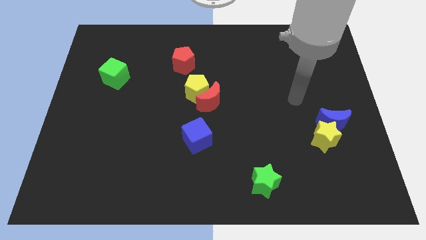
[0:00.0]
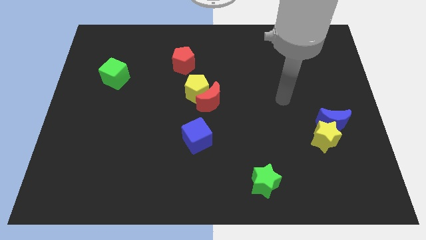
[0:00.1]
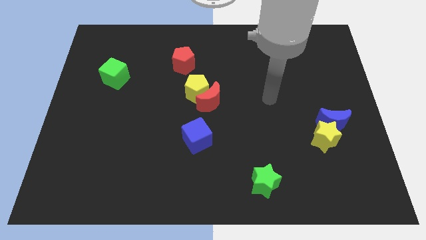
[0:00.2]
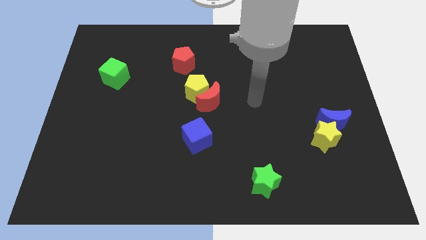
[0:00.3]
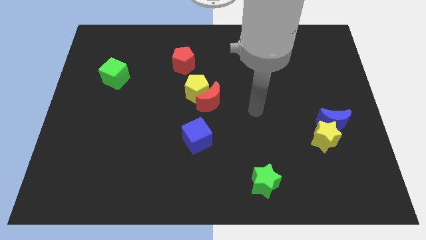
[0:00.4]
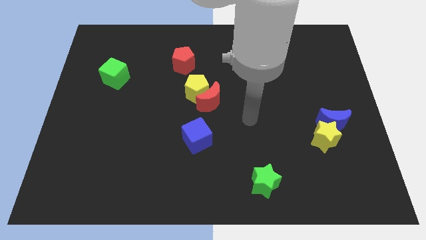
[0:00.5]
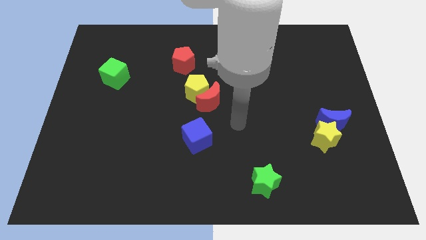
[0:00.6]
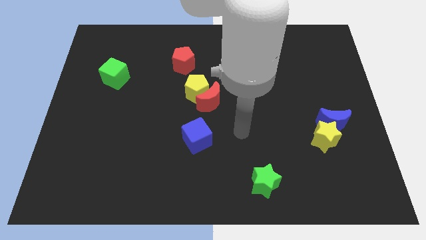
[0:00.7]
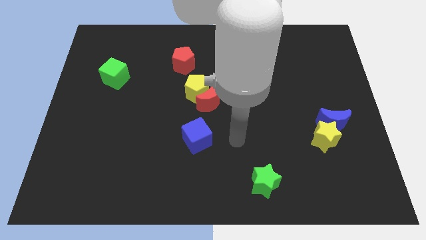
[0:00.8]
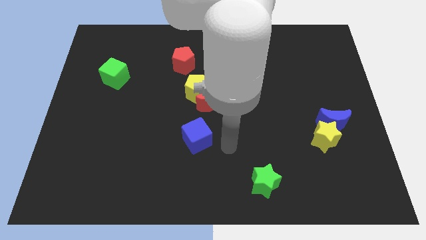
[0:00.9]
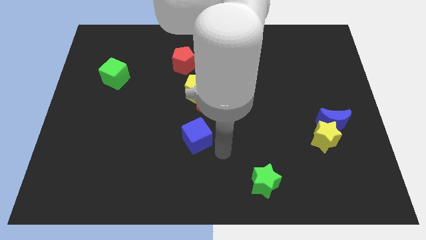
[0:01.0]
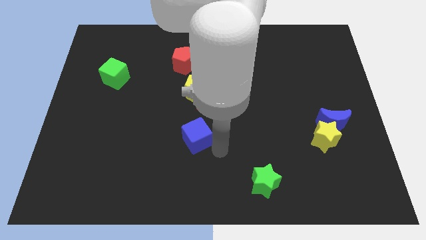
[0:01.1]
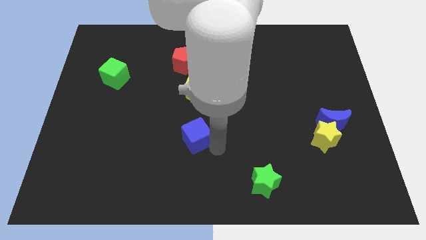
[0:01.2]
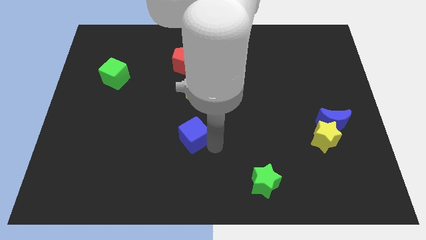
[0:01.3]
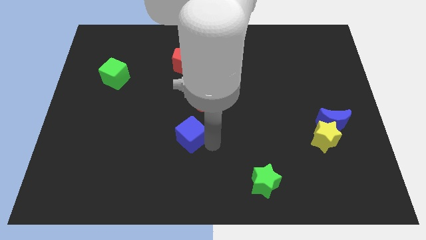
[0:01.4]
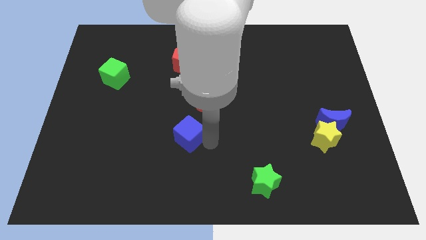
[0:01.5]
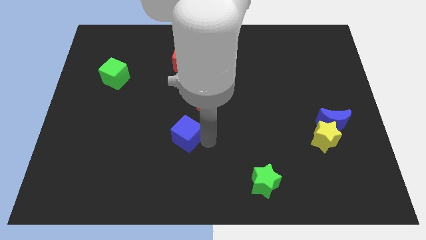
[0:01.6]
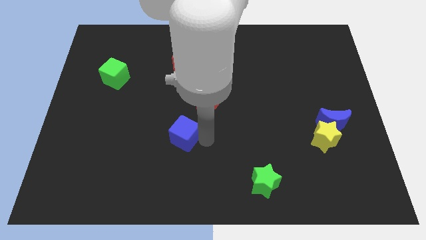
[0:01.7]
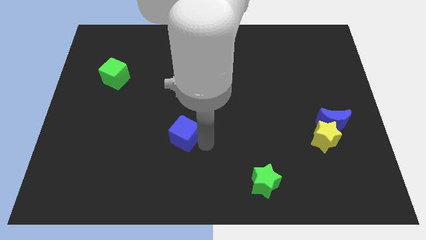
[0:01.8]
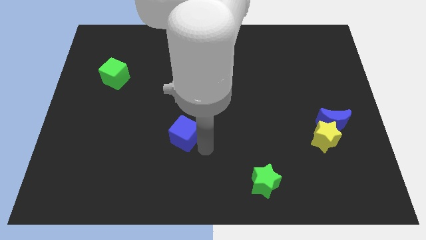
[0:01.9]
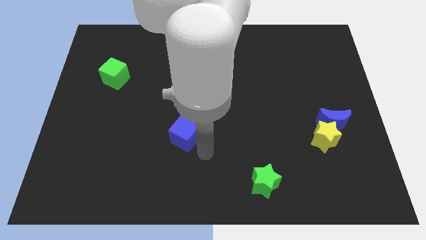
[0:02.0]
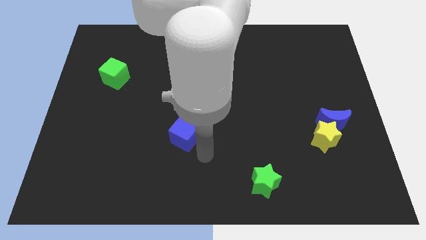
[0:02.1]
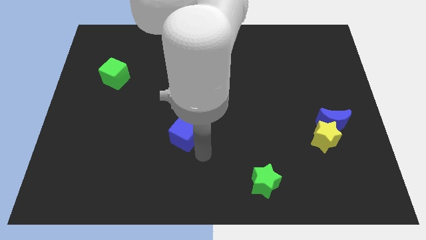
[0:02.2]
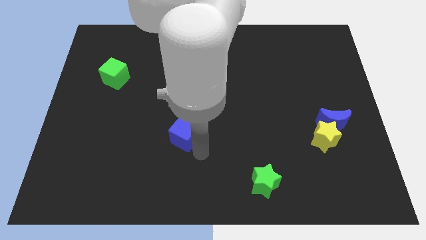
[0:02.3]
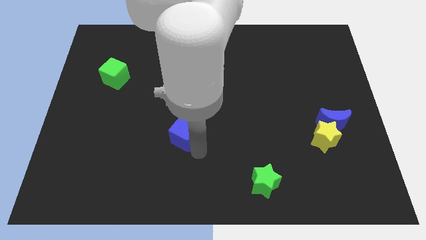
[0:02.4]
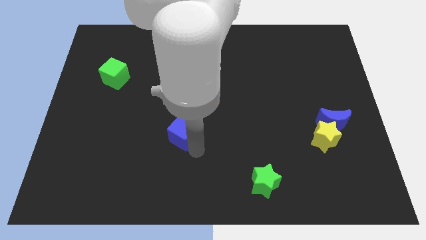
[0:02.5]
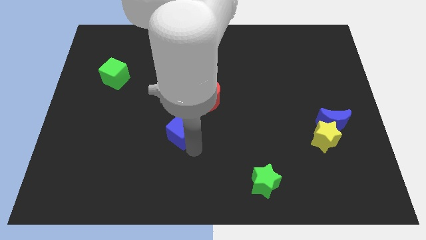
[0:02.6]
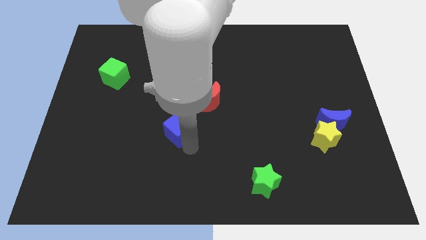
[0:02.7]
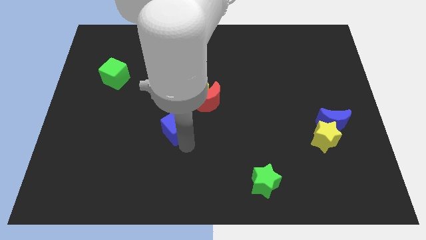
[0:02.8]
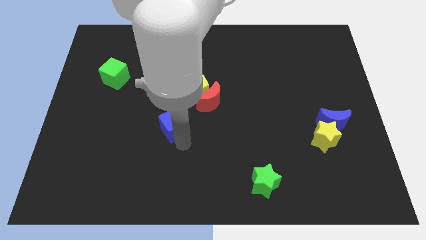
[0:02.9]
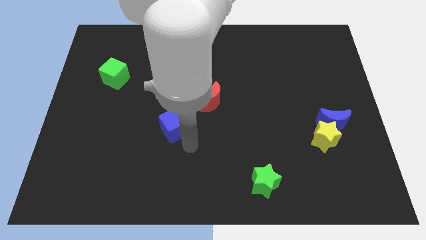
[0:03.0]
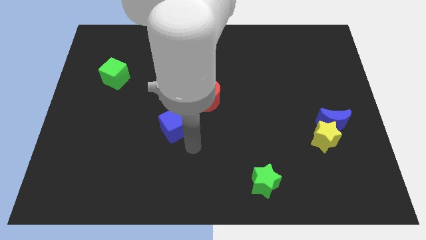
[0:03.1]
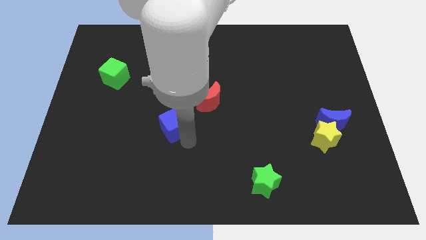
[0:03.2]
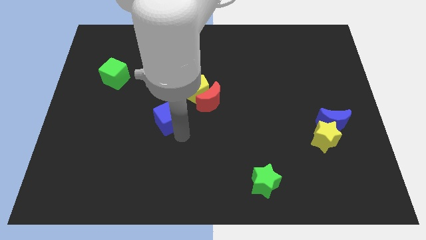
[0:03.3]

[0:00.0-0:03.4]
slightly slide the blue cube up and to the left diagonally

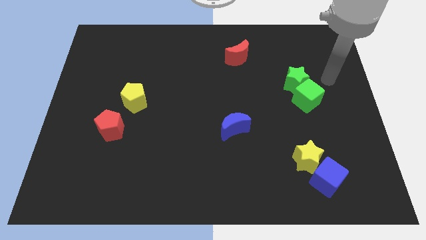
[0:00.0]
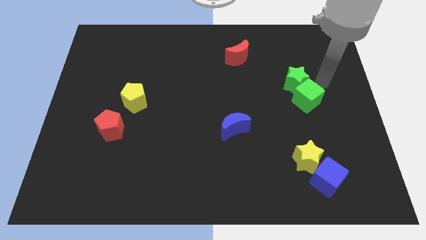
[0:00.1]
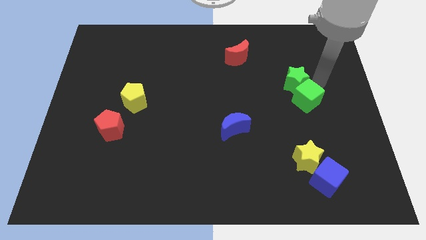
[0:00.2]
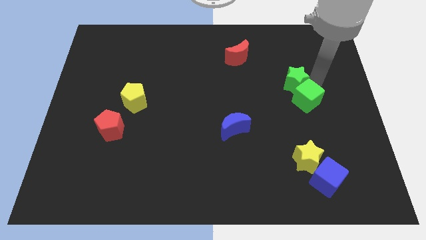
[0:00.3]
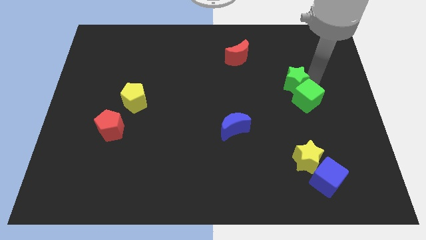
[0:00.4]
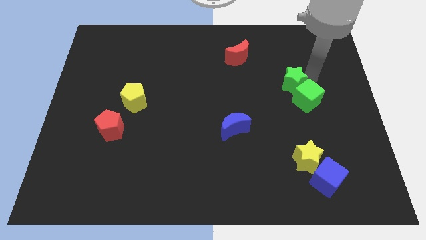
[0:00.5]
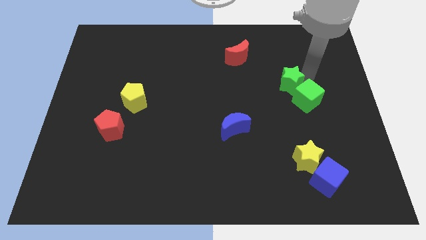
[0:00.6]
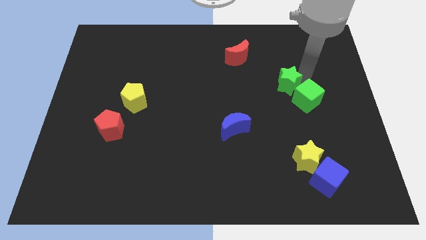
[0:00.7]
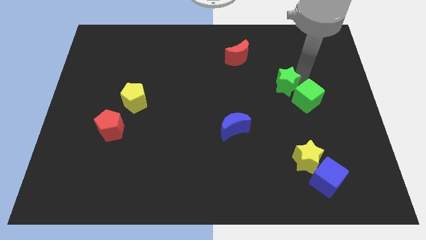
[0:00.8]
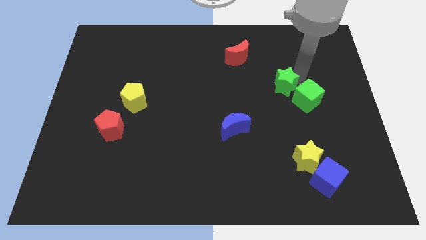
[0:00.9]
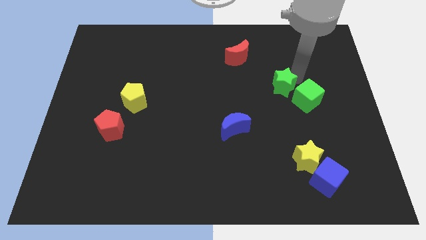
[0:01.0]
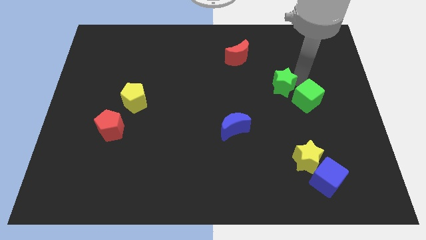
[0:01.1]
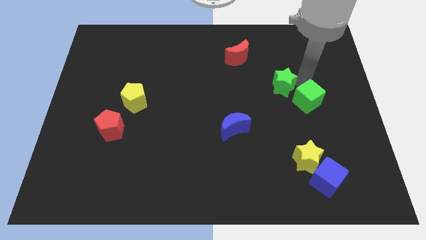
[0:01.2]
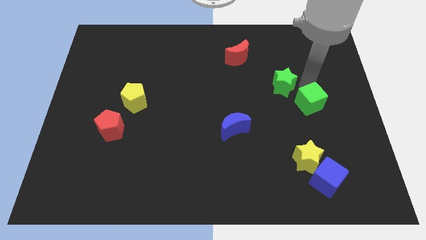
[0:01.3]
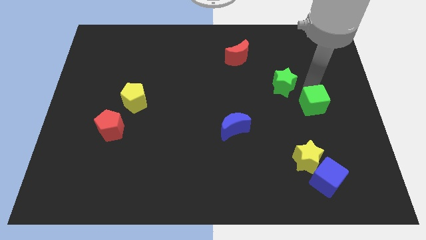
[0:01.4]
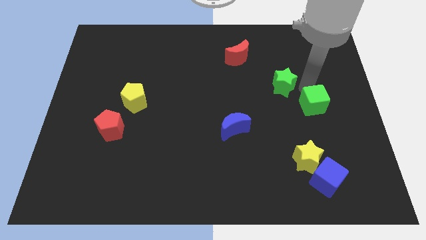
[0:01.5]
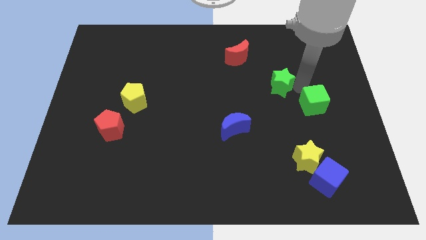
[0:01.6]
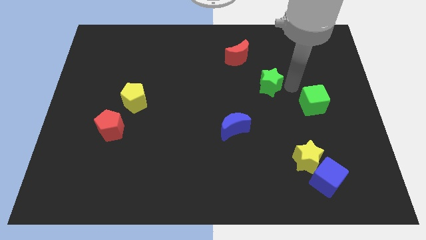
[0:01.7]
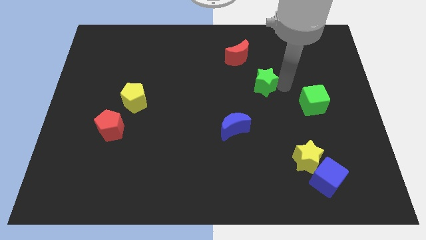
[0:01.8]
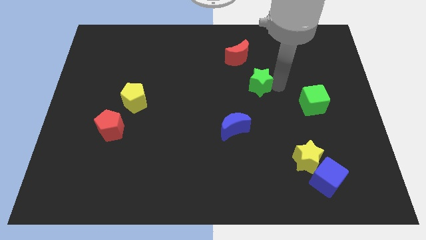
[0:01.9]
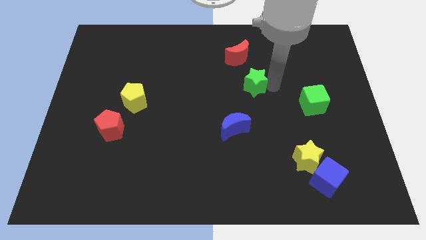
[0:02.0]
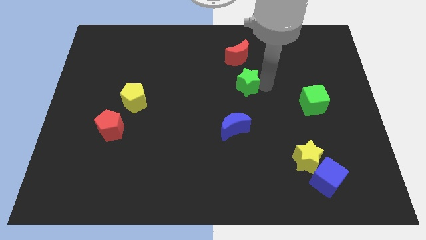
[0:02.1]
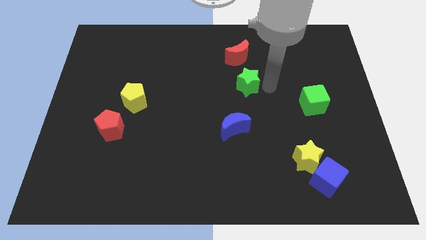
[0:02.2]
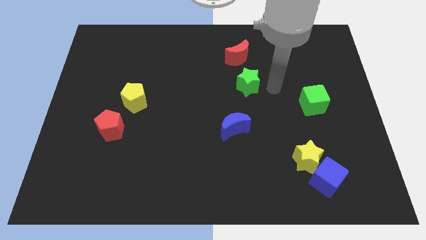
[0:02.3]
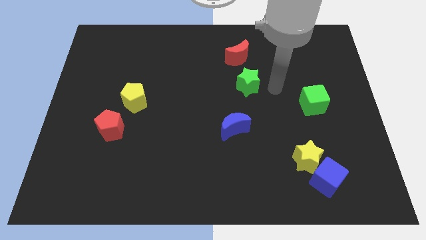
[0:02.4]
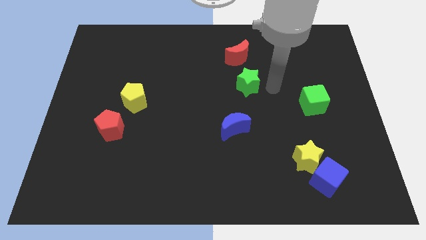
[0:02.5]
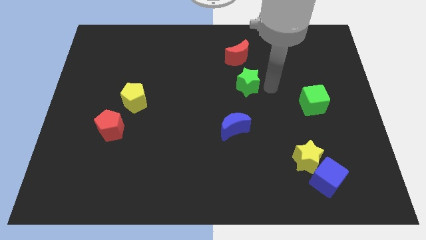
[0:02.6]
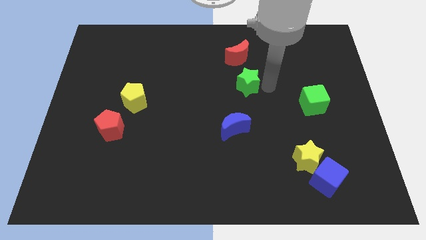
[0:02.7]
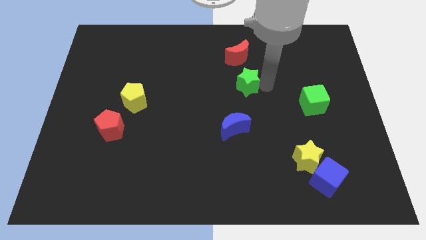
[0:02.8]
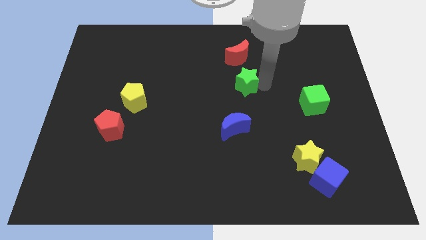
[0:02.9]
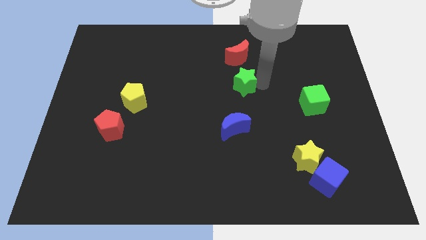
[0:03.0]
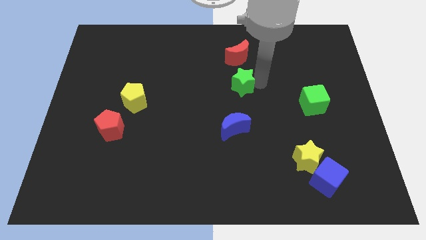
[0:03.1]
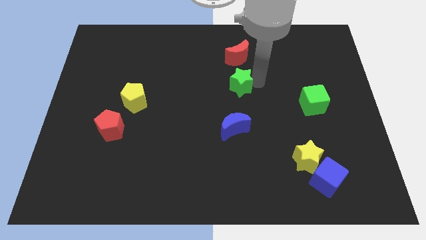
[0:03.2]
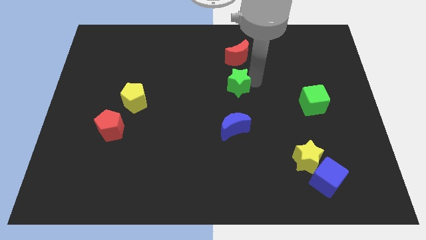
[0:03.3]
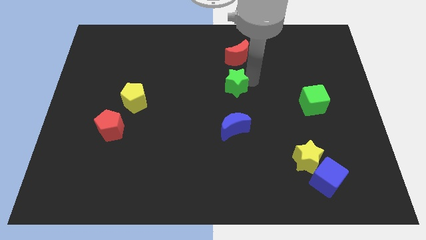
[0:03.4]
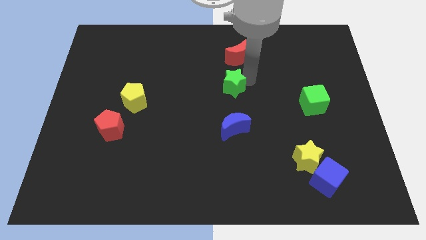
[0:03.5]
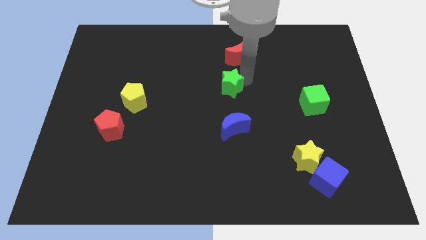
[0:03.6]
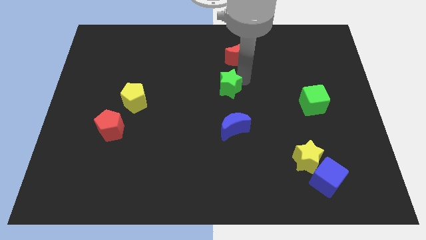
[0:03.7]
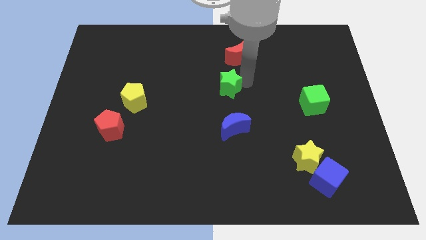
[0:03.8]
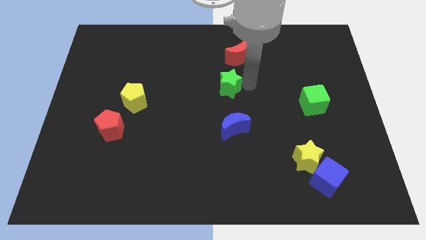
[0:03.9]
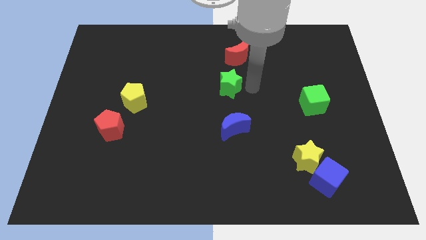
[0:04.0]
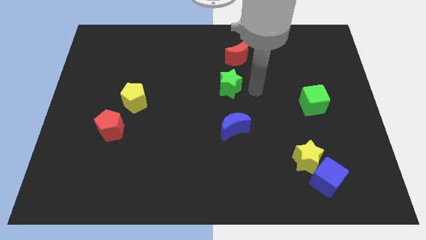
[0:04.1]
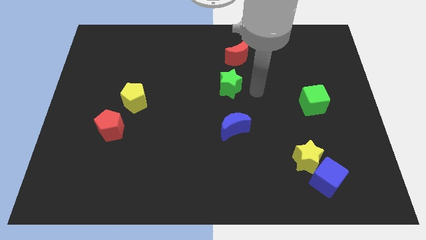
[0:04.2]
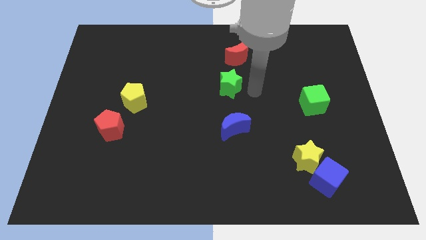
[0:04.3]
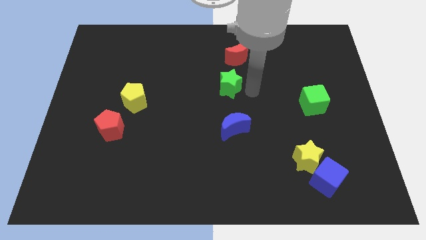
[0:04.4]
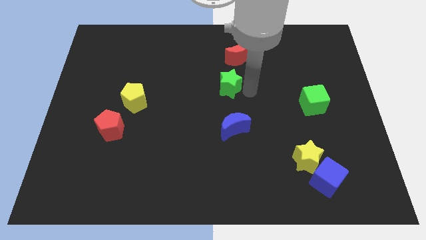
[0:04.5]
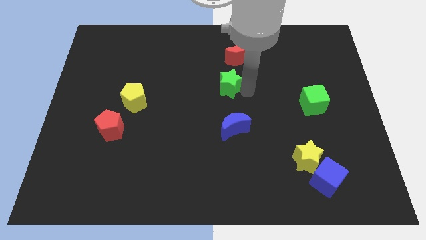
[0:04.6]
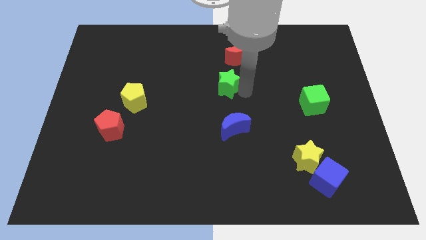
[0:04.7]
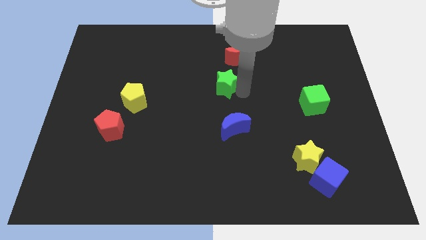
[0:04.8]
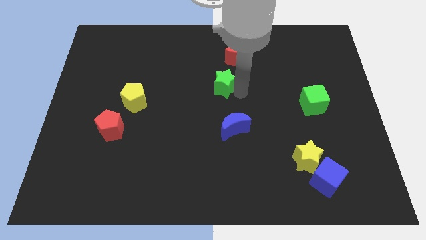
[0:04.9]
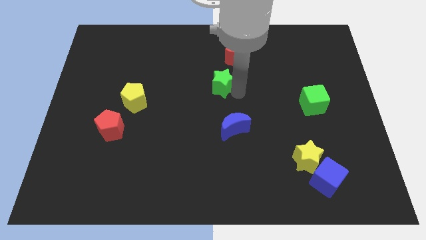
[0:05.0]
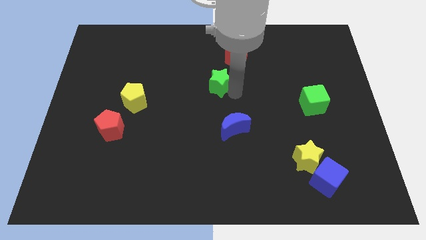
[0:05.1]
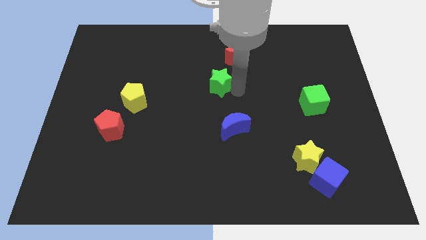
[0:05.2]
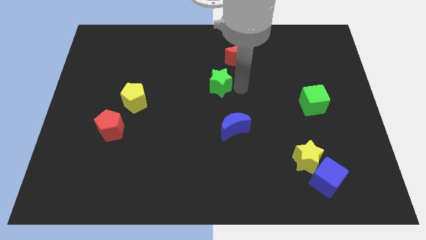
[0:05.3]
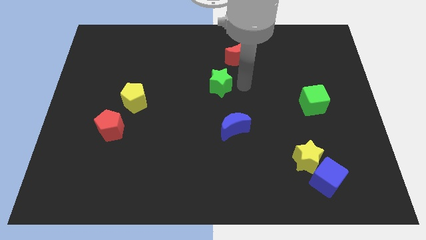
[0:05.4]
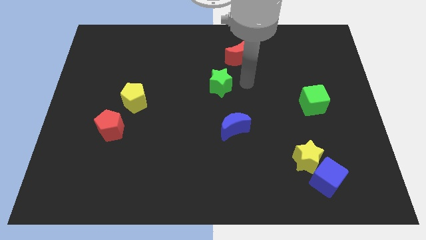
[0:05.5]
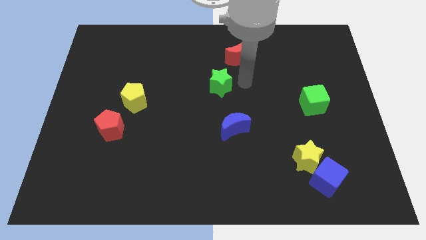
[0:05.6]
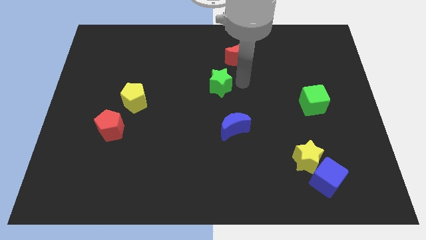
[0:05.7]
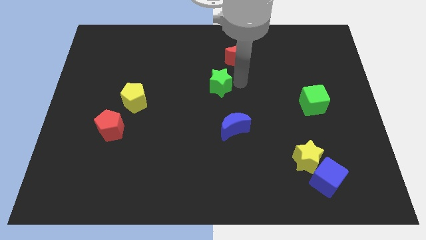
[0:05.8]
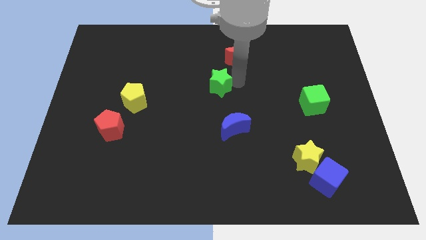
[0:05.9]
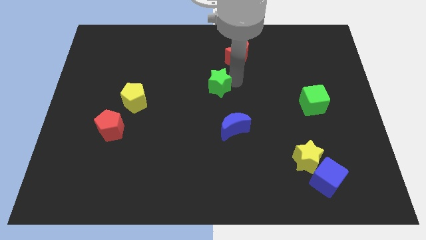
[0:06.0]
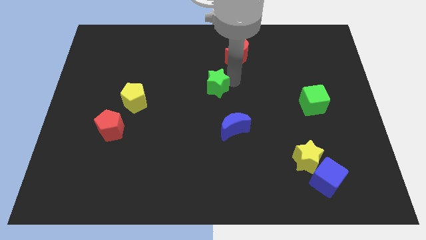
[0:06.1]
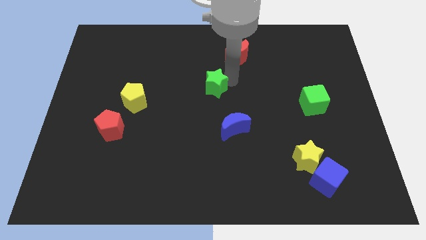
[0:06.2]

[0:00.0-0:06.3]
slide the green star left
